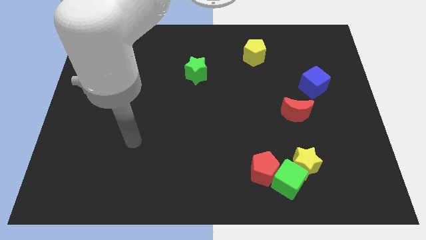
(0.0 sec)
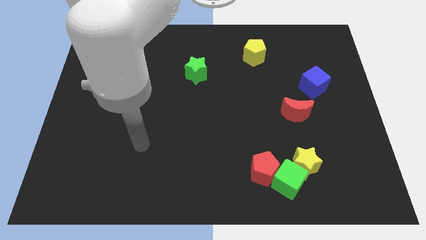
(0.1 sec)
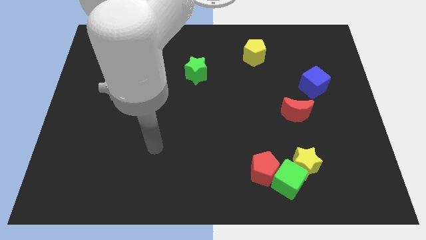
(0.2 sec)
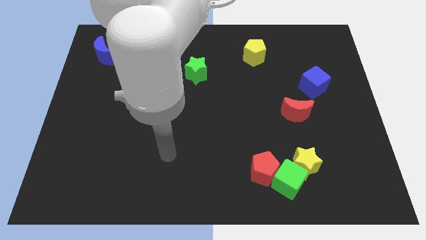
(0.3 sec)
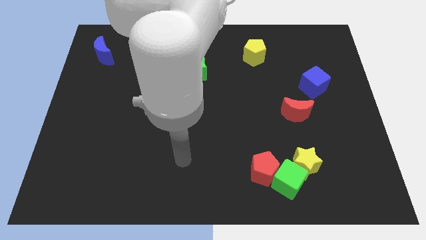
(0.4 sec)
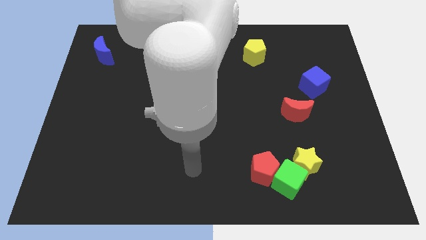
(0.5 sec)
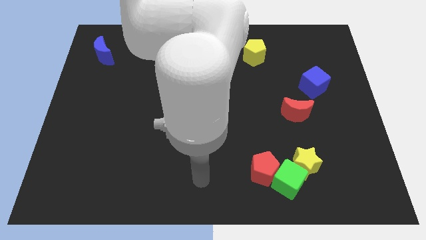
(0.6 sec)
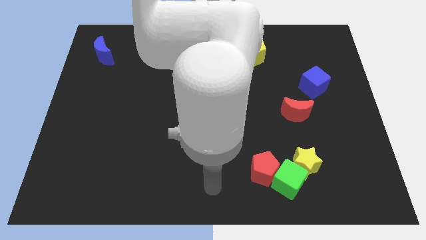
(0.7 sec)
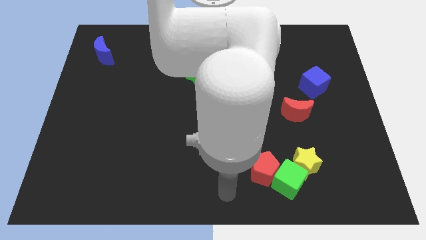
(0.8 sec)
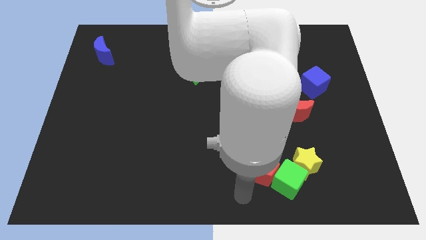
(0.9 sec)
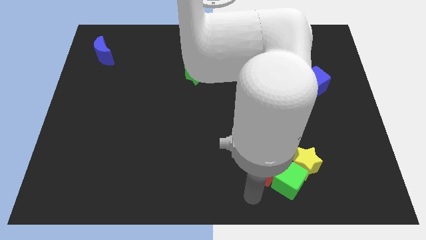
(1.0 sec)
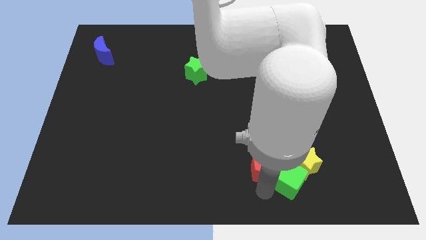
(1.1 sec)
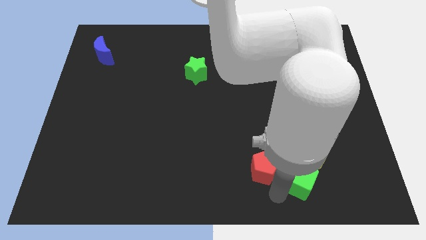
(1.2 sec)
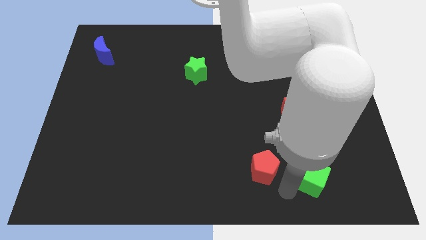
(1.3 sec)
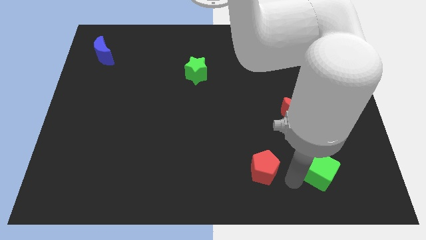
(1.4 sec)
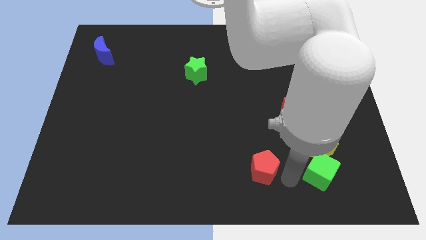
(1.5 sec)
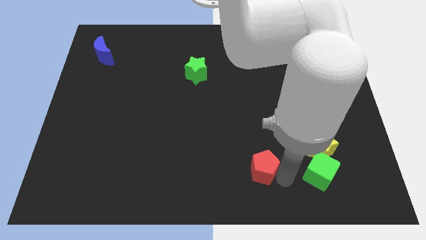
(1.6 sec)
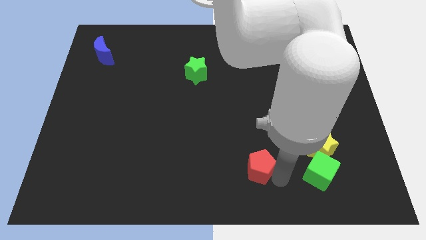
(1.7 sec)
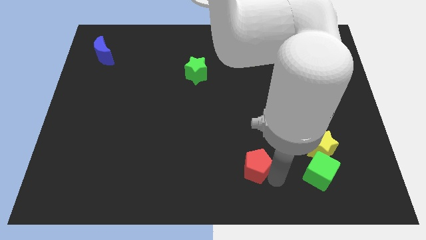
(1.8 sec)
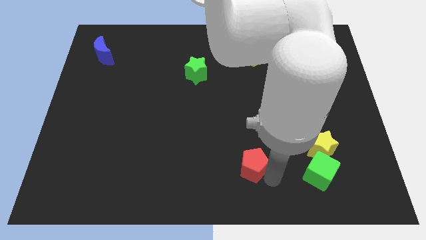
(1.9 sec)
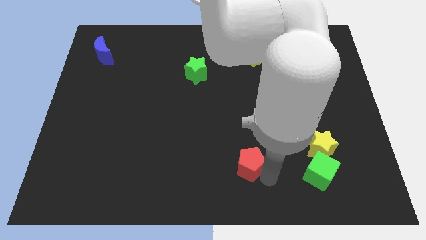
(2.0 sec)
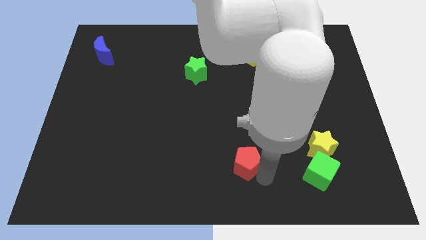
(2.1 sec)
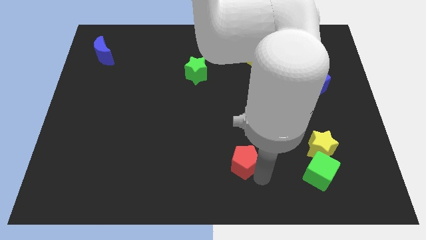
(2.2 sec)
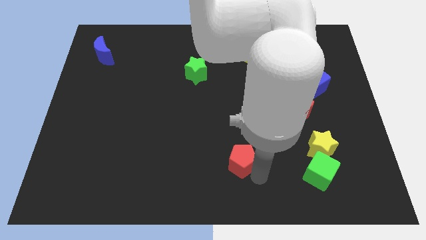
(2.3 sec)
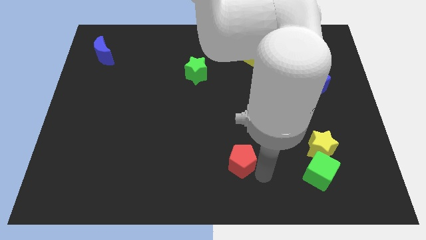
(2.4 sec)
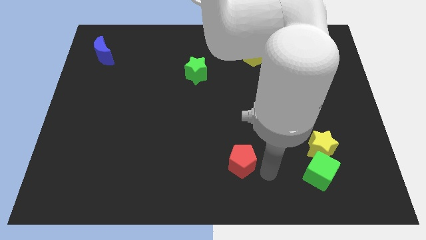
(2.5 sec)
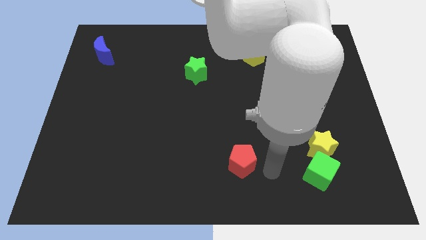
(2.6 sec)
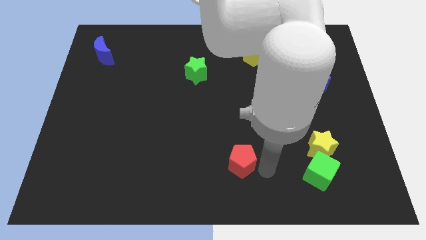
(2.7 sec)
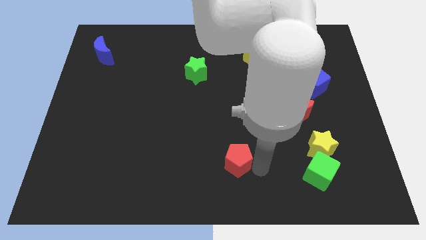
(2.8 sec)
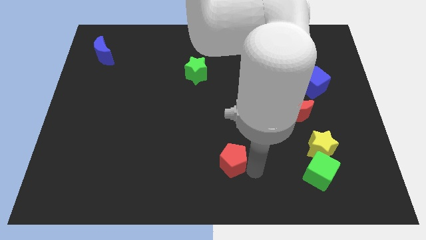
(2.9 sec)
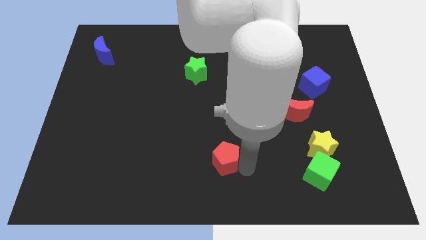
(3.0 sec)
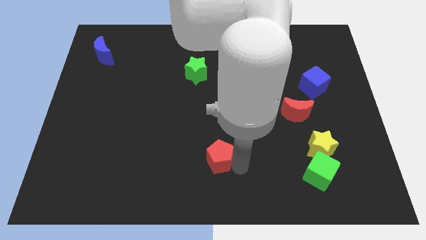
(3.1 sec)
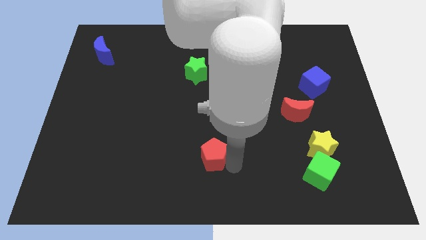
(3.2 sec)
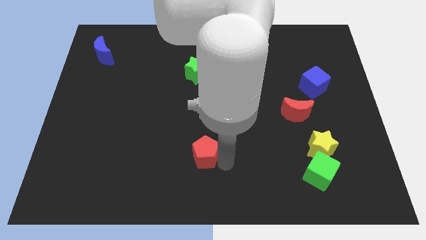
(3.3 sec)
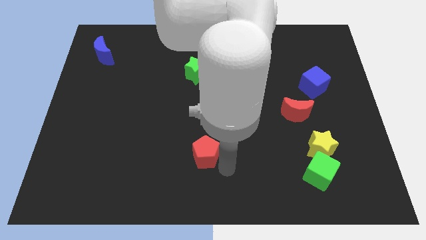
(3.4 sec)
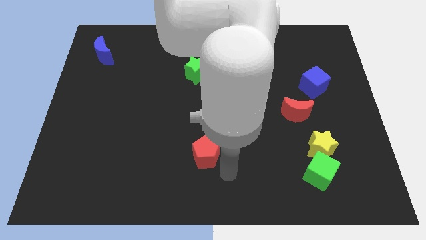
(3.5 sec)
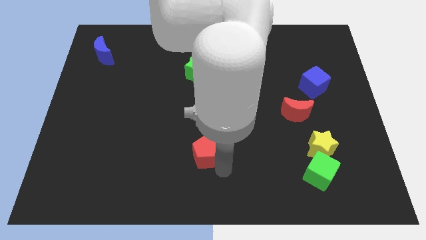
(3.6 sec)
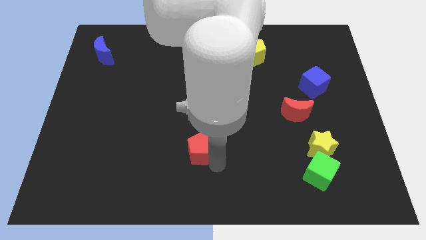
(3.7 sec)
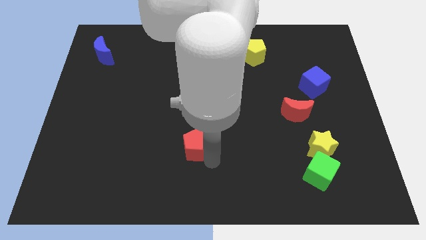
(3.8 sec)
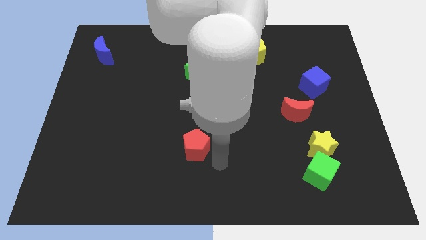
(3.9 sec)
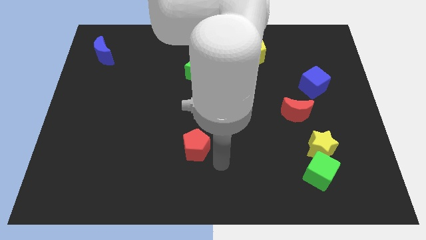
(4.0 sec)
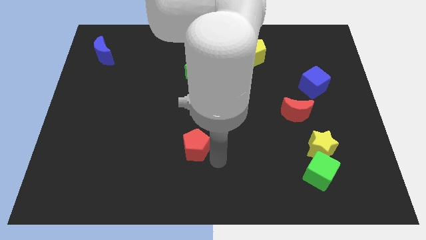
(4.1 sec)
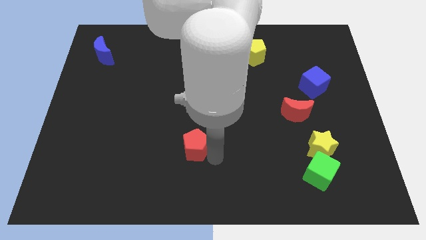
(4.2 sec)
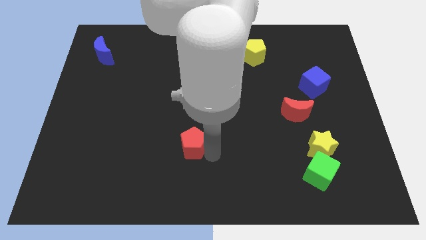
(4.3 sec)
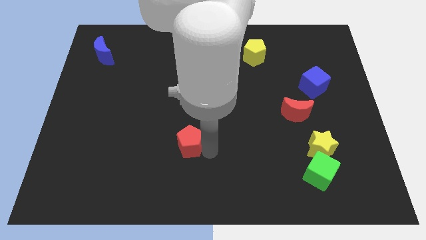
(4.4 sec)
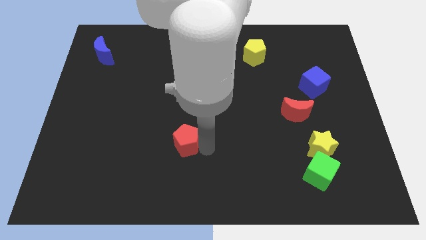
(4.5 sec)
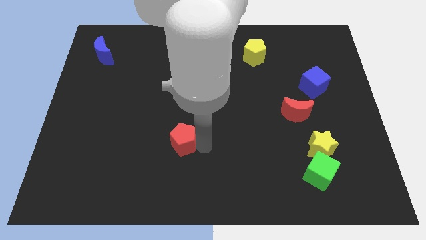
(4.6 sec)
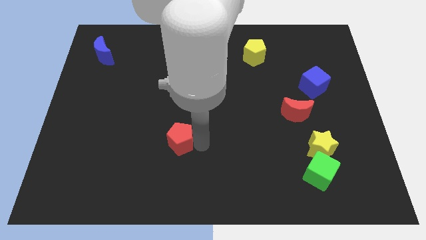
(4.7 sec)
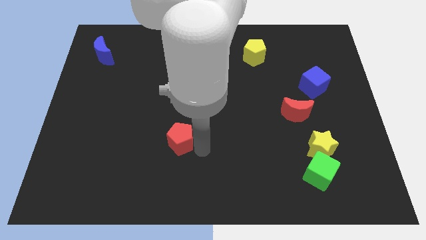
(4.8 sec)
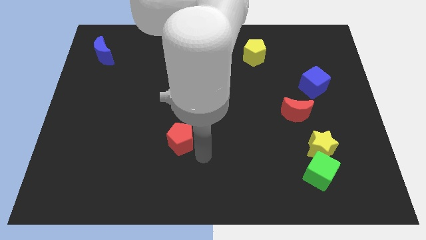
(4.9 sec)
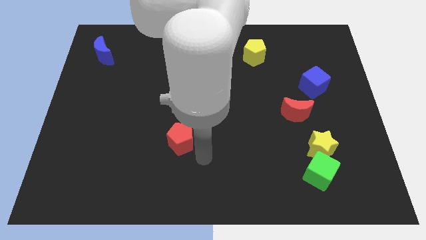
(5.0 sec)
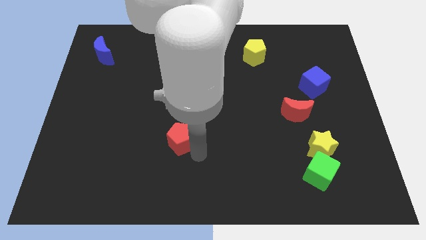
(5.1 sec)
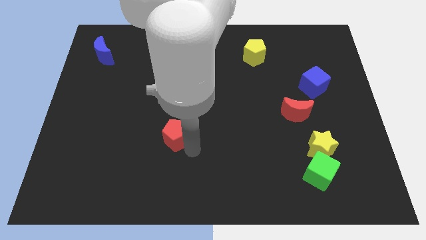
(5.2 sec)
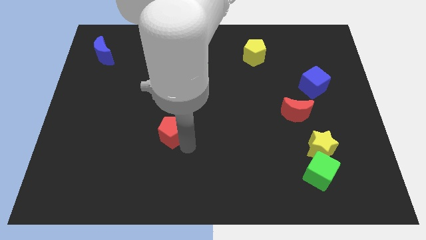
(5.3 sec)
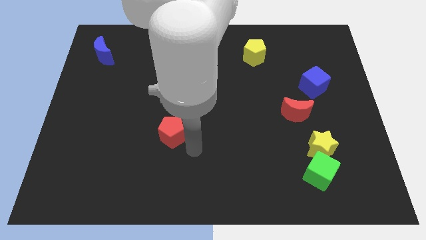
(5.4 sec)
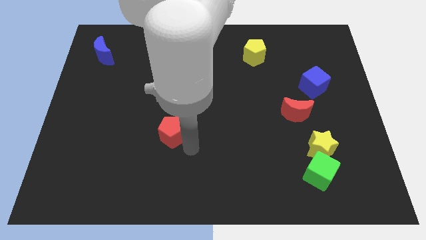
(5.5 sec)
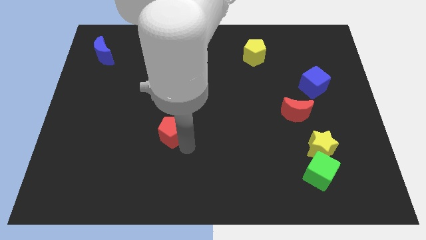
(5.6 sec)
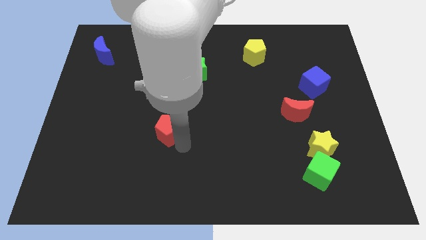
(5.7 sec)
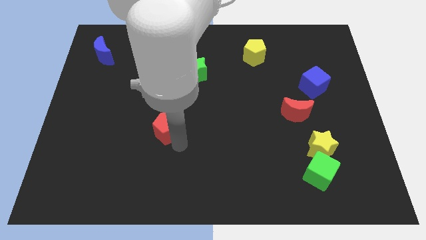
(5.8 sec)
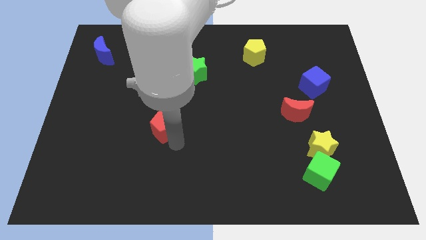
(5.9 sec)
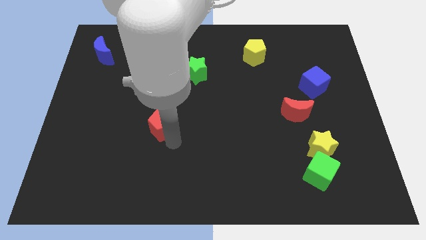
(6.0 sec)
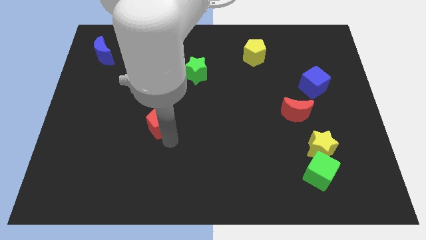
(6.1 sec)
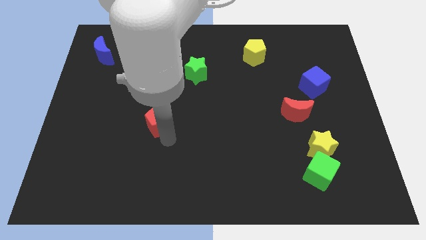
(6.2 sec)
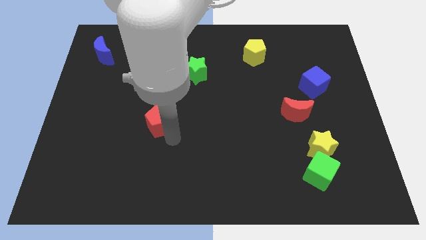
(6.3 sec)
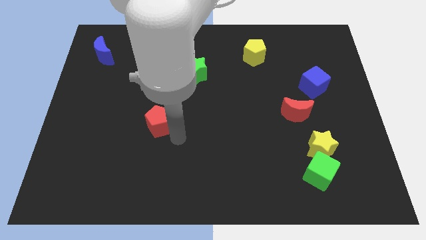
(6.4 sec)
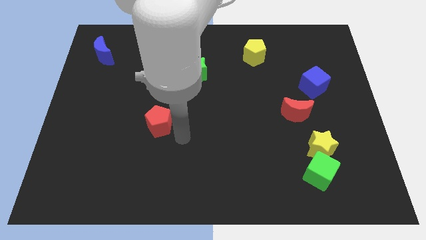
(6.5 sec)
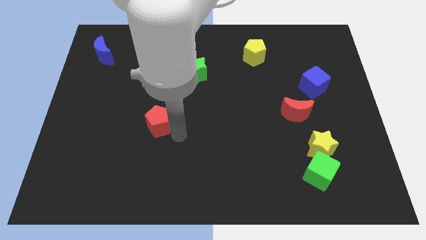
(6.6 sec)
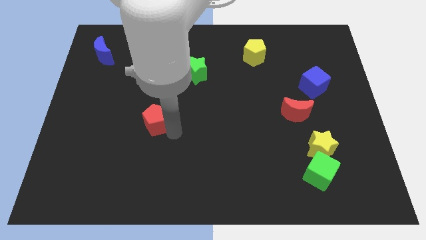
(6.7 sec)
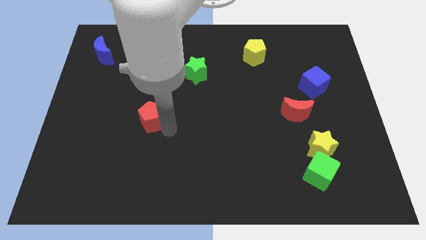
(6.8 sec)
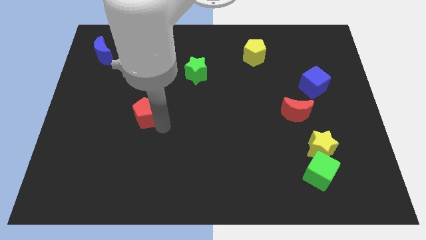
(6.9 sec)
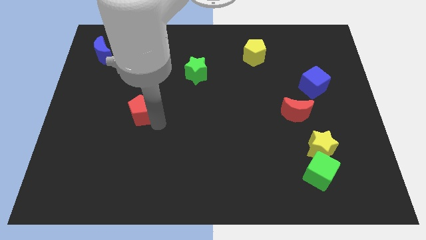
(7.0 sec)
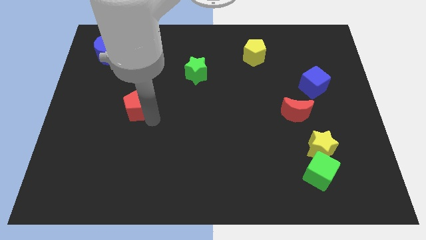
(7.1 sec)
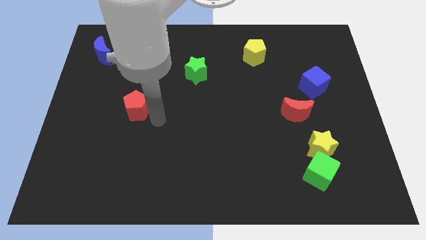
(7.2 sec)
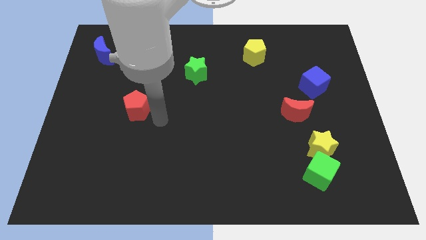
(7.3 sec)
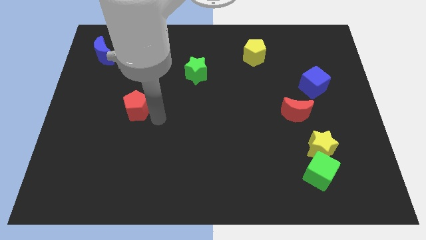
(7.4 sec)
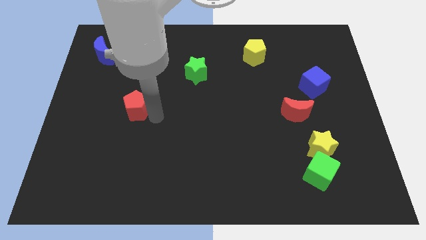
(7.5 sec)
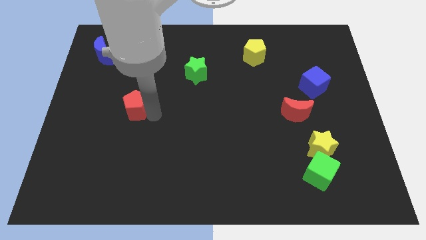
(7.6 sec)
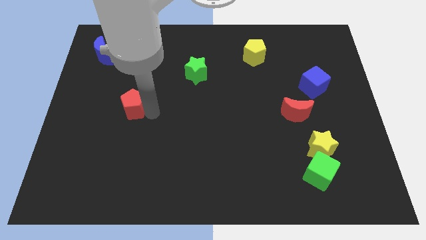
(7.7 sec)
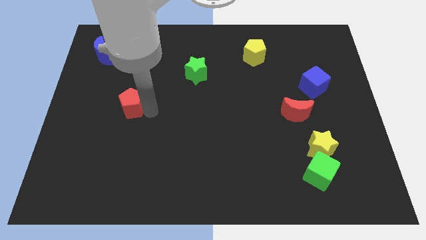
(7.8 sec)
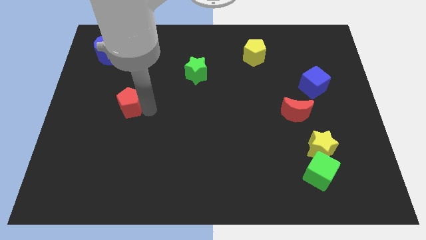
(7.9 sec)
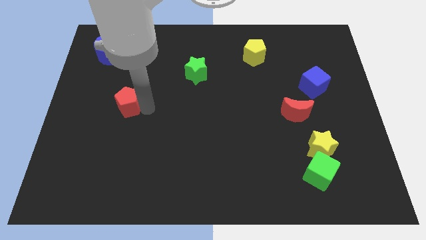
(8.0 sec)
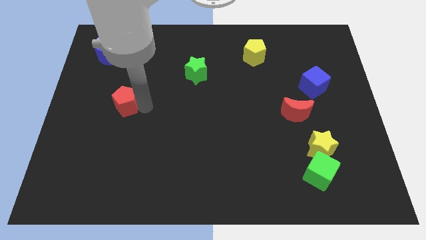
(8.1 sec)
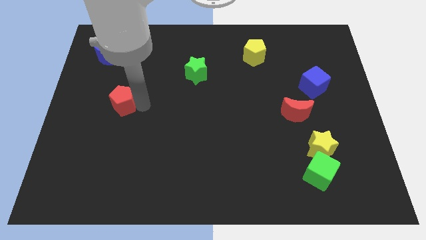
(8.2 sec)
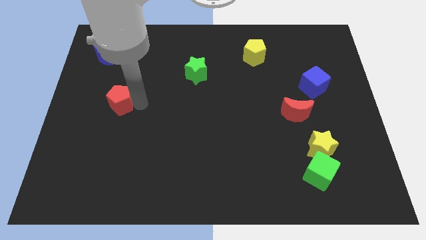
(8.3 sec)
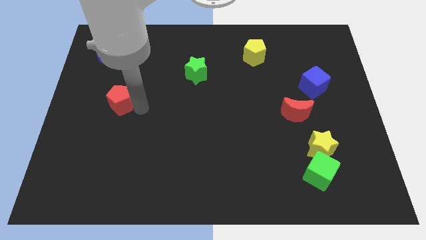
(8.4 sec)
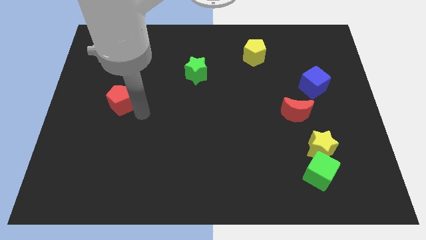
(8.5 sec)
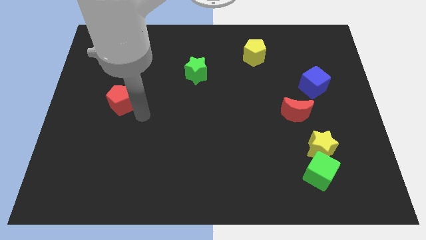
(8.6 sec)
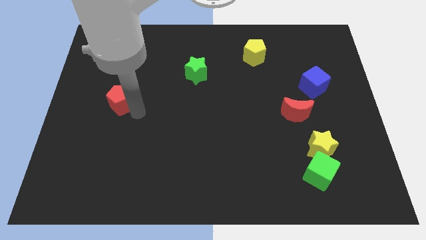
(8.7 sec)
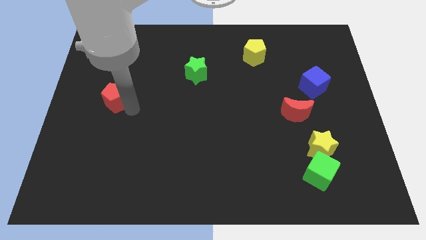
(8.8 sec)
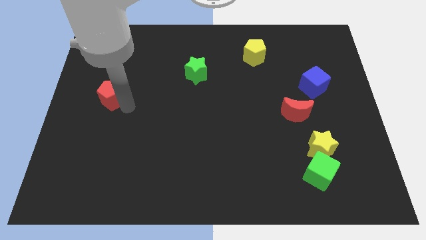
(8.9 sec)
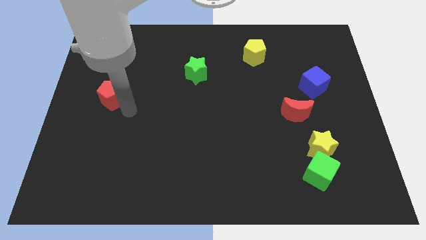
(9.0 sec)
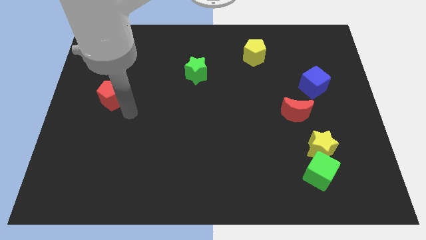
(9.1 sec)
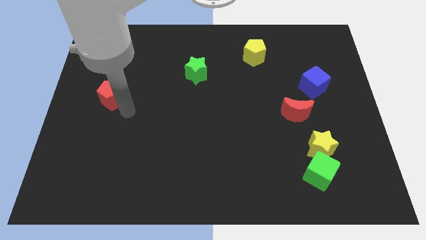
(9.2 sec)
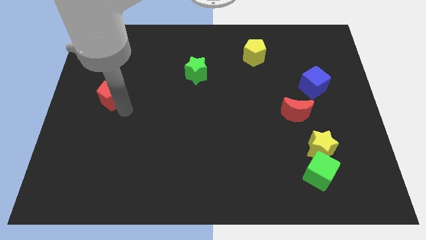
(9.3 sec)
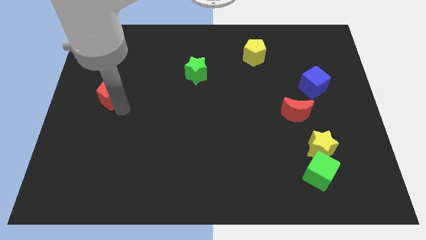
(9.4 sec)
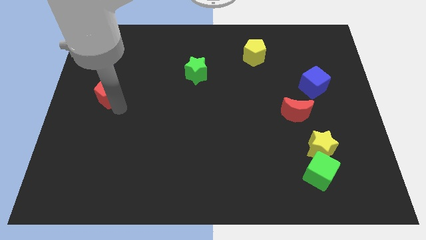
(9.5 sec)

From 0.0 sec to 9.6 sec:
put the red pentagon below the blue moon
